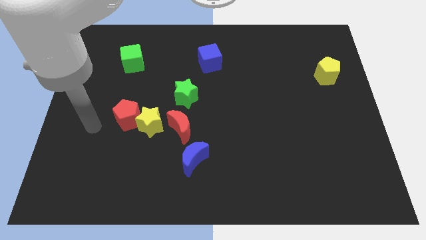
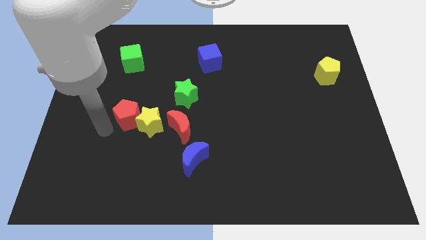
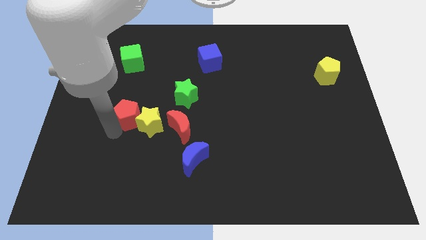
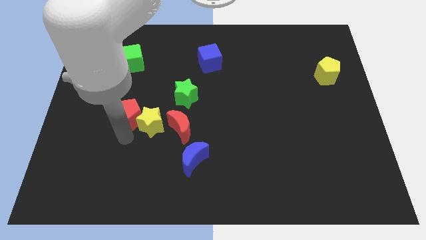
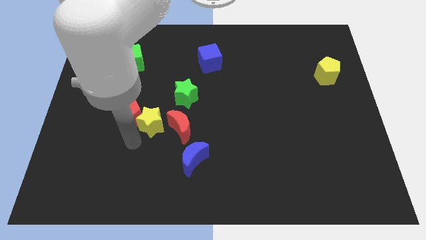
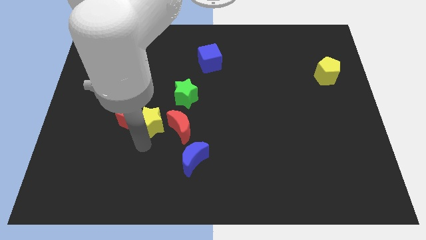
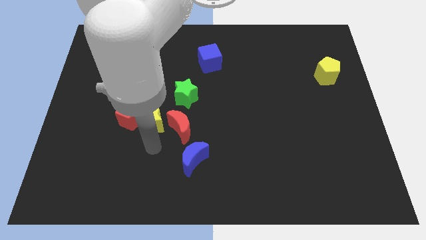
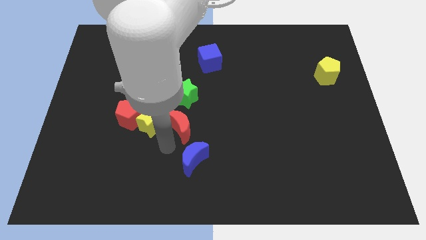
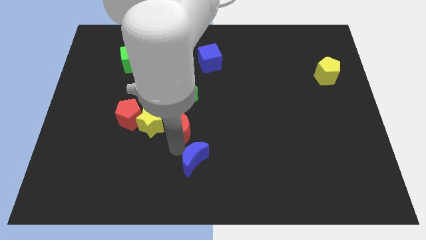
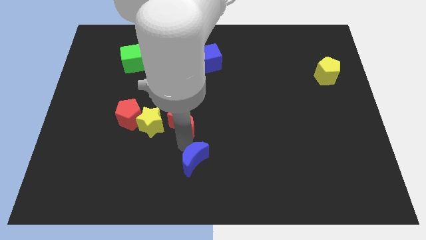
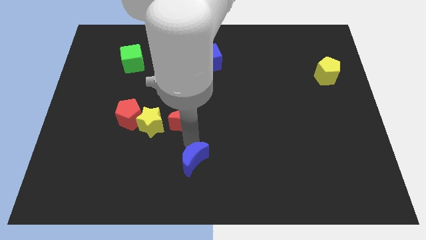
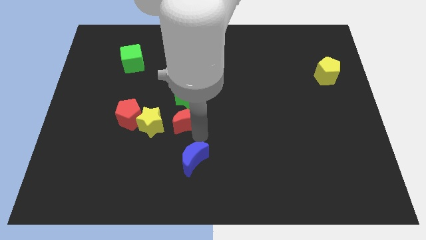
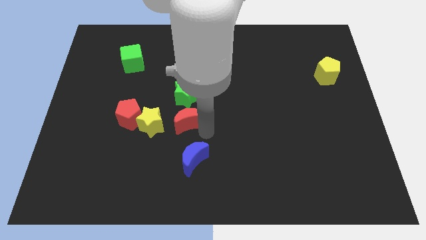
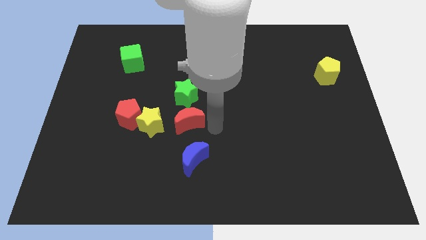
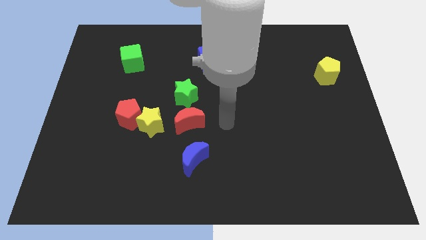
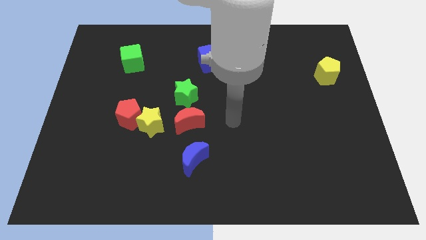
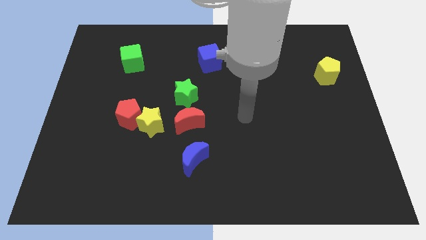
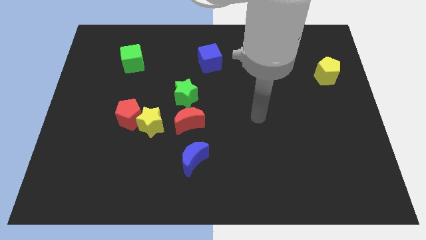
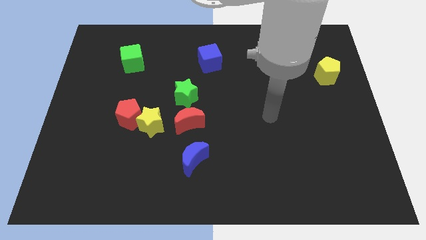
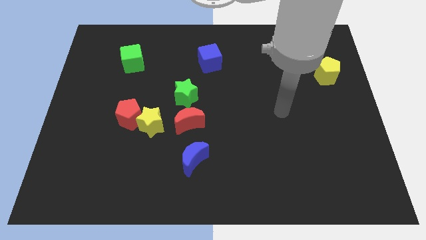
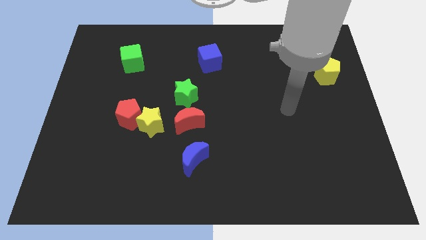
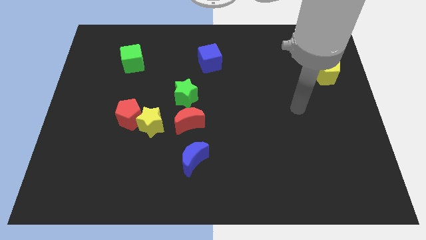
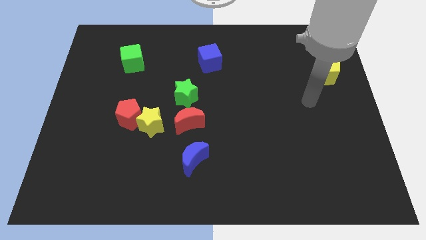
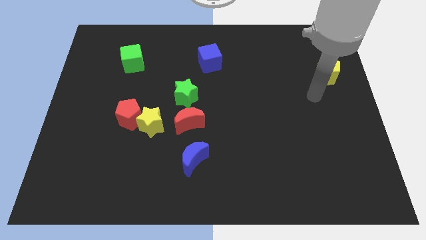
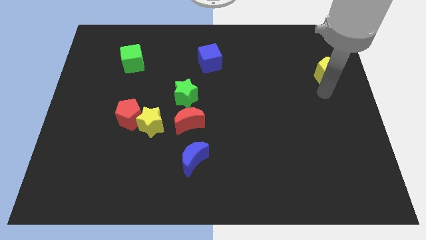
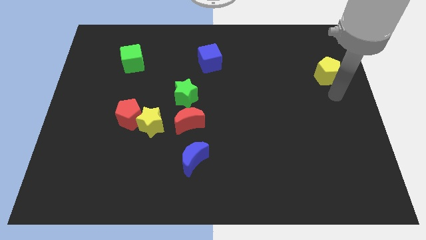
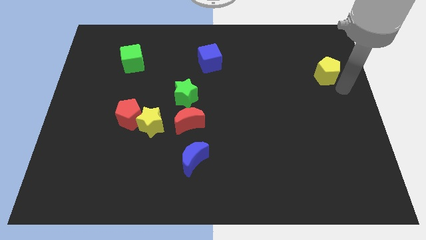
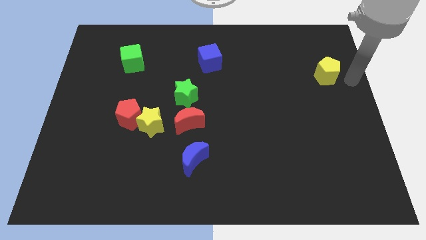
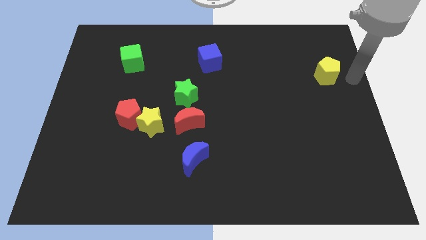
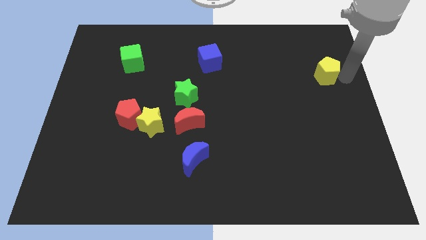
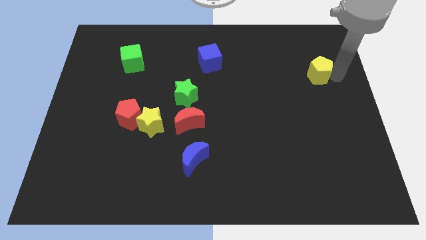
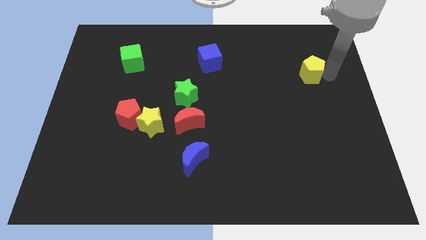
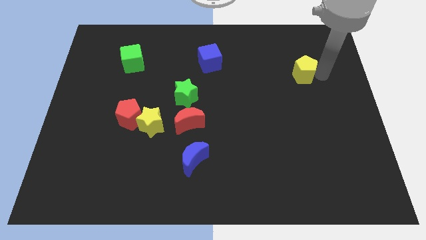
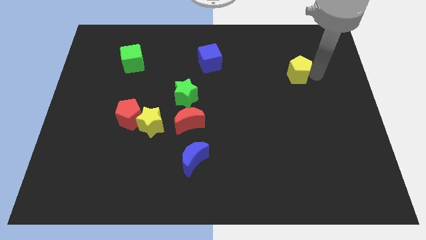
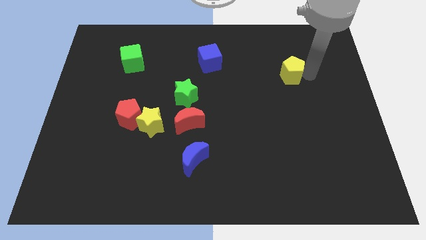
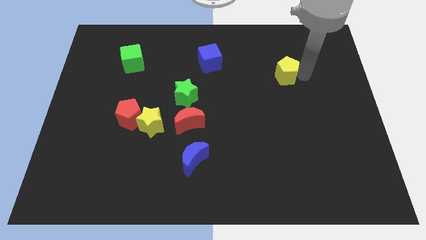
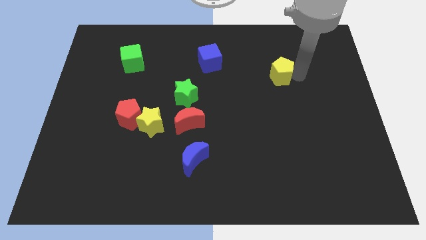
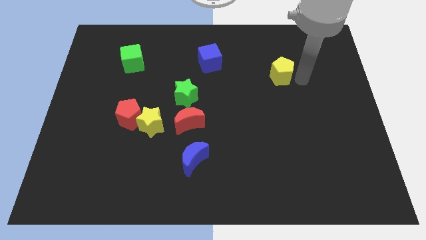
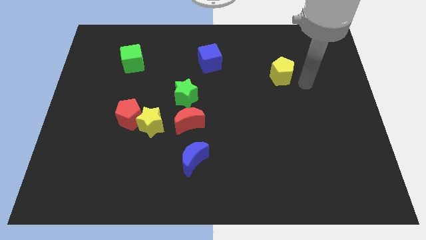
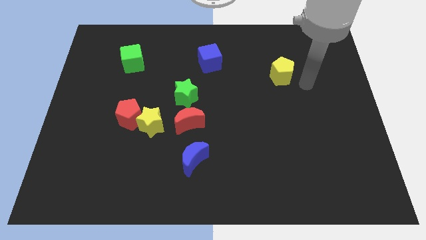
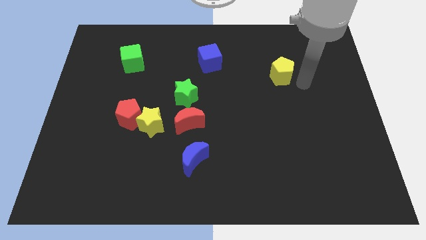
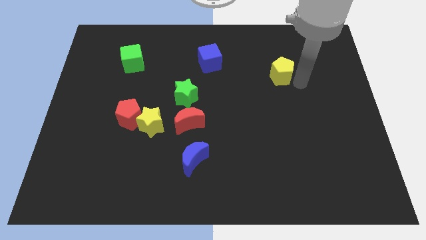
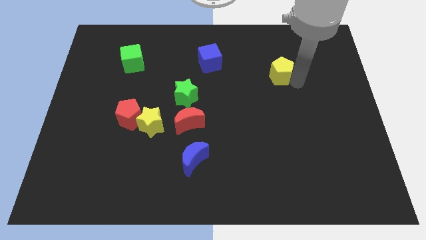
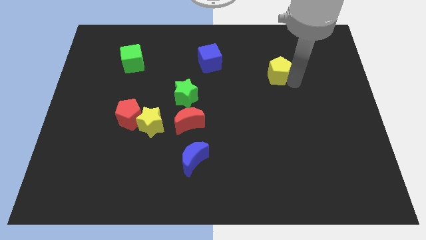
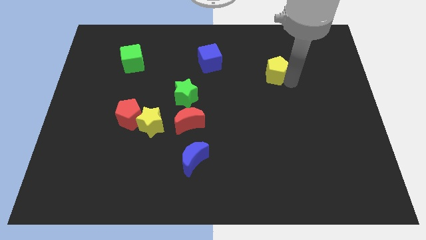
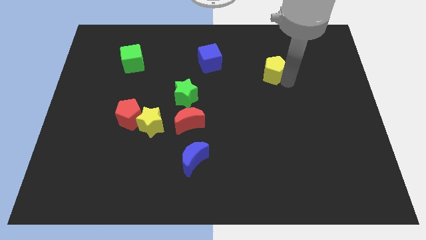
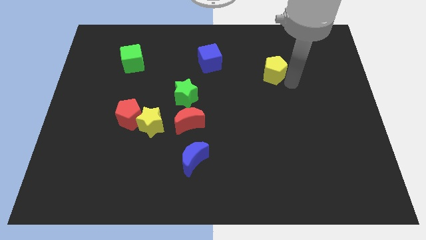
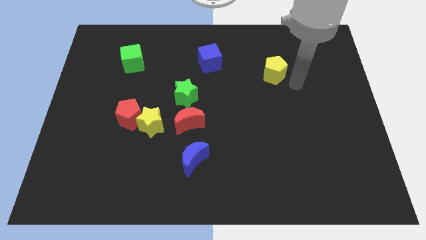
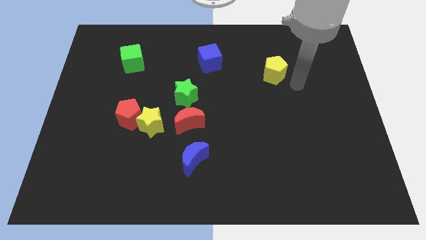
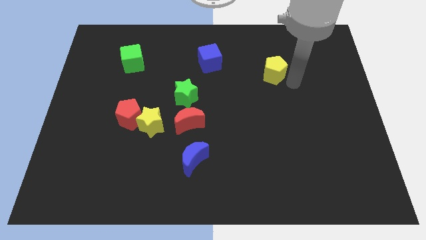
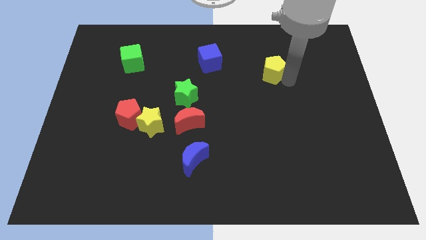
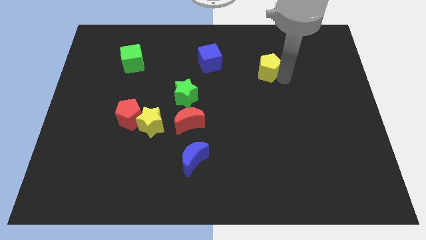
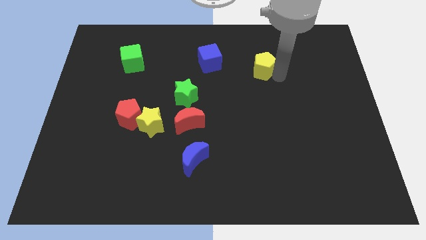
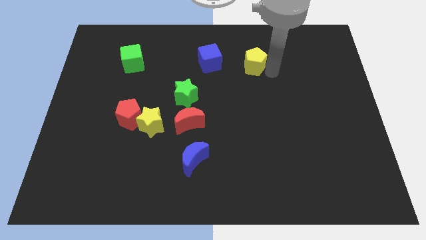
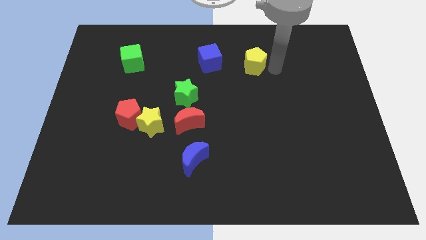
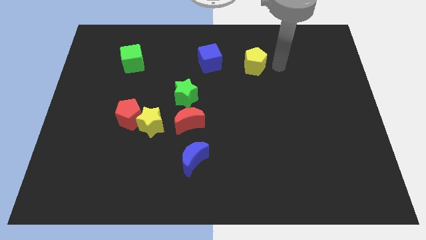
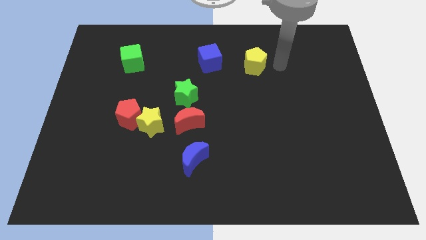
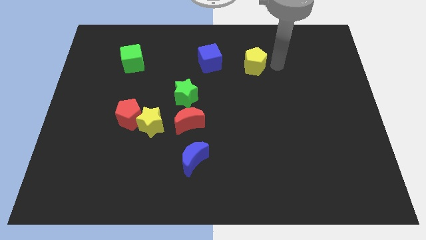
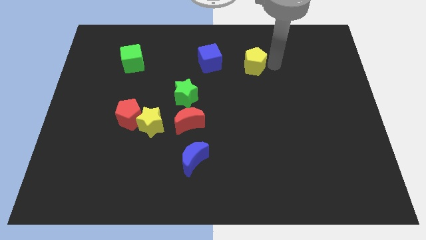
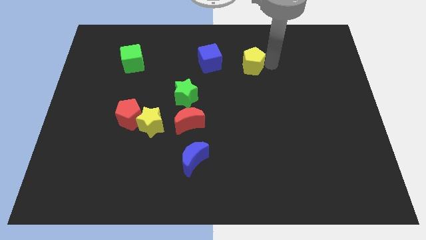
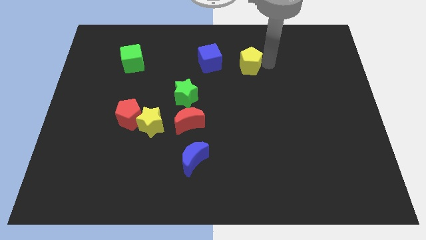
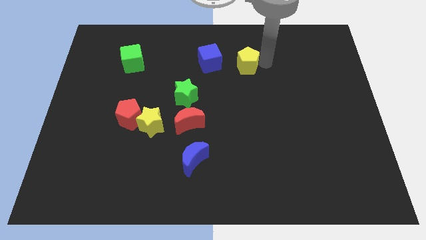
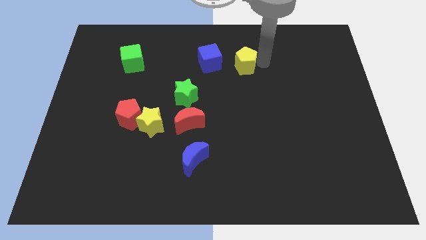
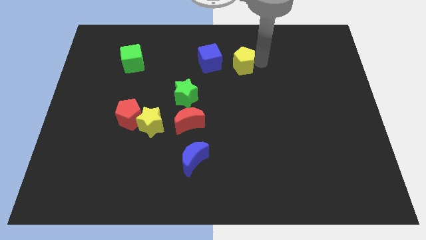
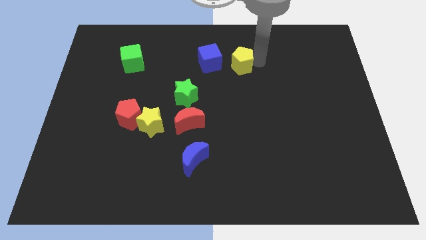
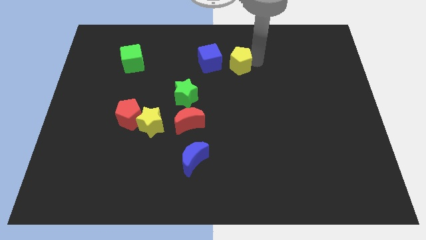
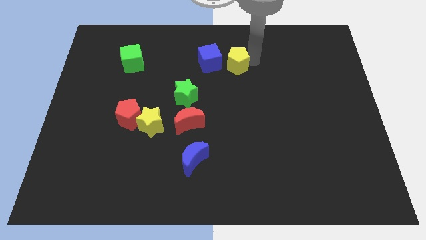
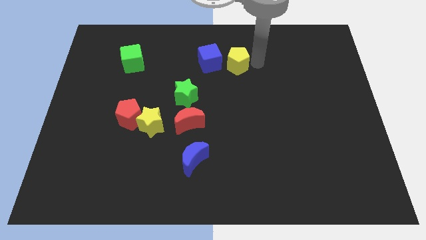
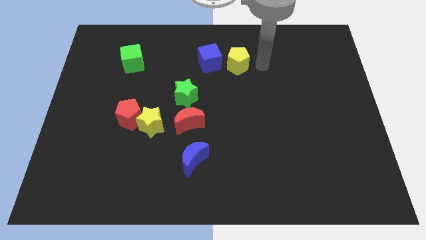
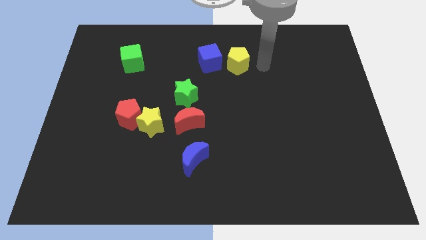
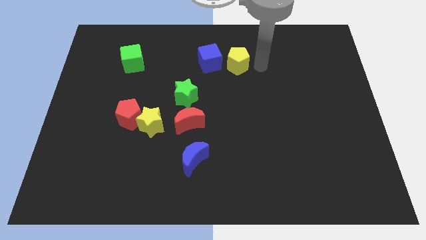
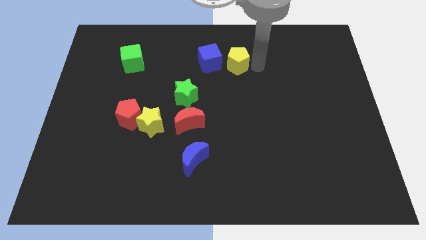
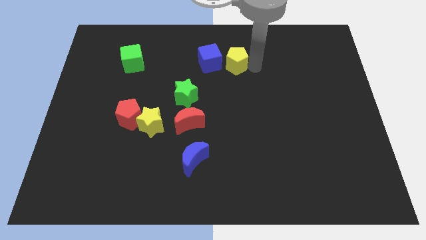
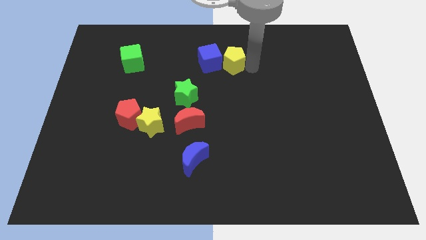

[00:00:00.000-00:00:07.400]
push the yellow pentagon towards the blue cube
